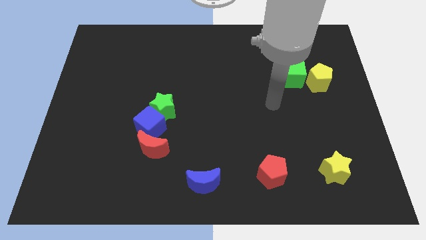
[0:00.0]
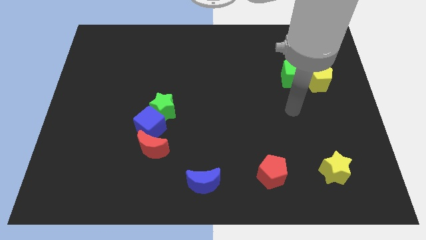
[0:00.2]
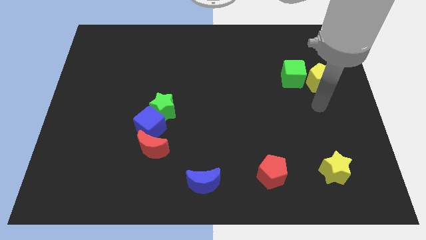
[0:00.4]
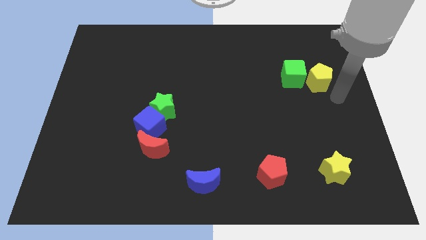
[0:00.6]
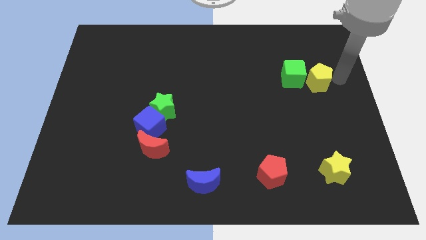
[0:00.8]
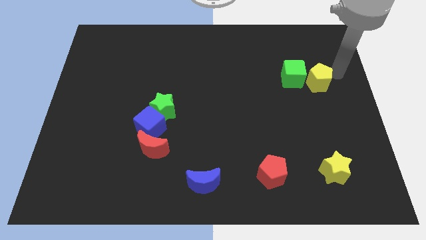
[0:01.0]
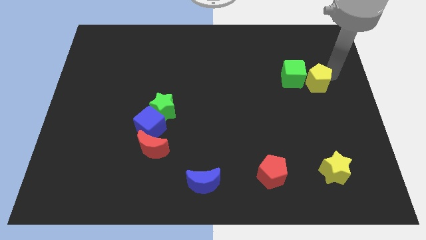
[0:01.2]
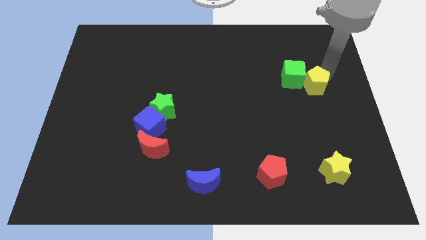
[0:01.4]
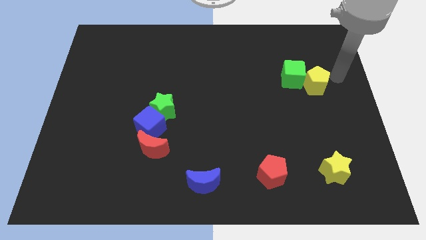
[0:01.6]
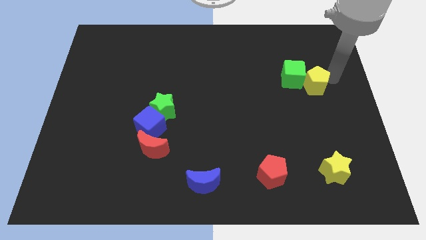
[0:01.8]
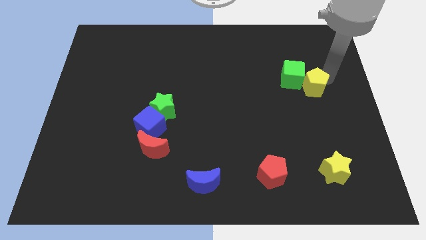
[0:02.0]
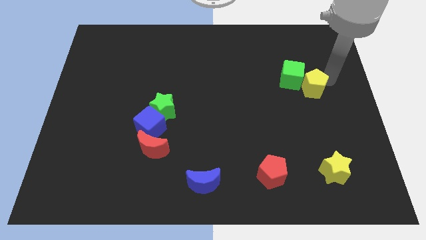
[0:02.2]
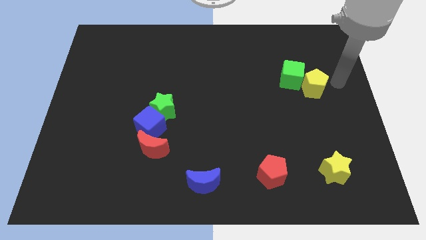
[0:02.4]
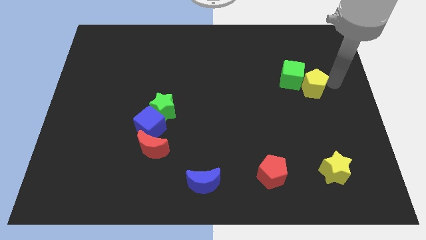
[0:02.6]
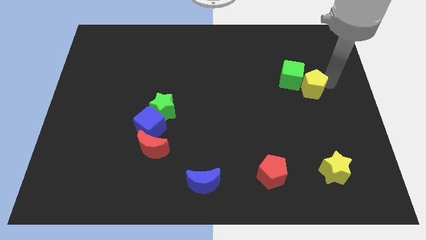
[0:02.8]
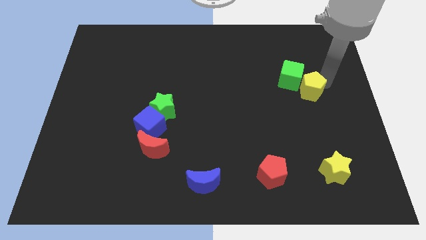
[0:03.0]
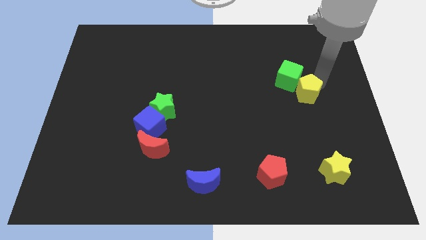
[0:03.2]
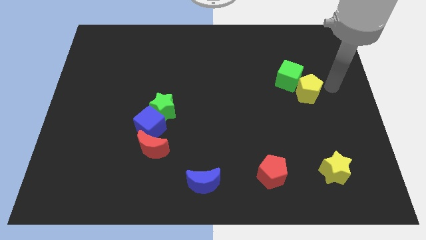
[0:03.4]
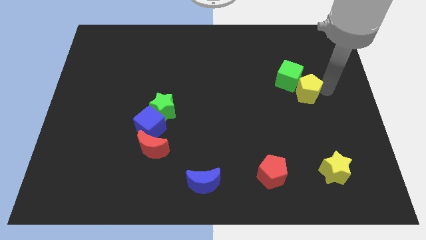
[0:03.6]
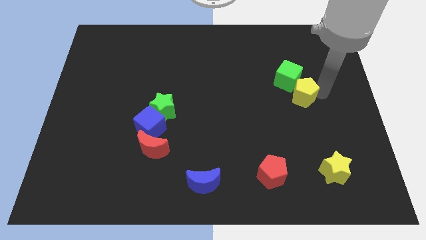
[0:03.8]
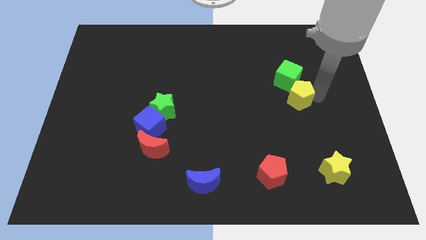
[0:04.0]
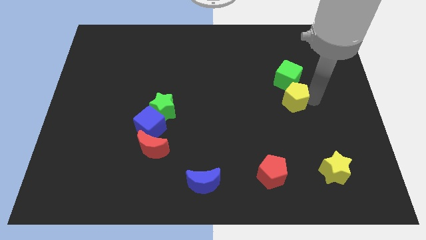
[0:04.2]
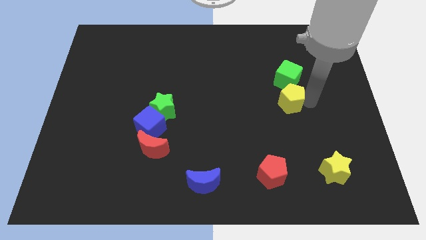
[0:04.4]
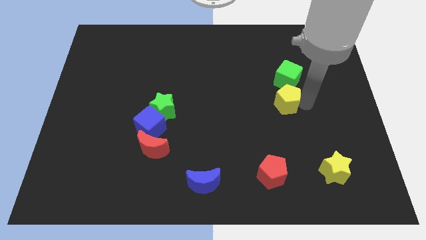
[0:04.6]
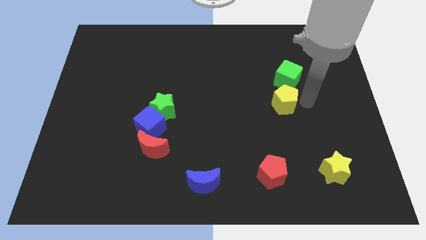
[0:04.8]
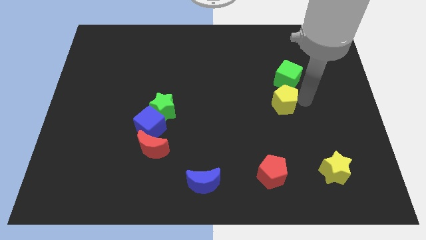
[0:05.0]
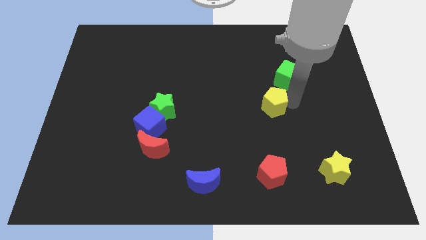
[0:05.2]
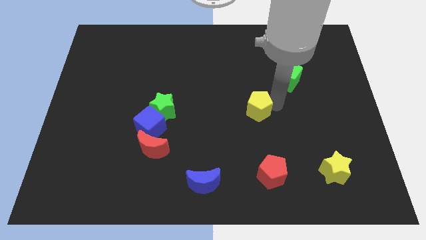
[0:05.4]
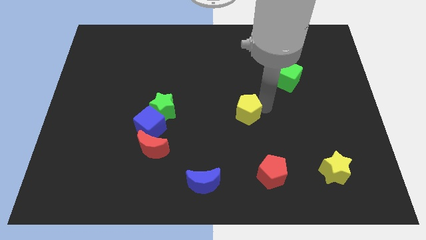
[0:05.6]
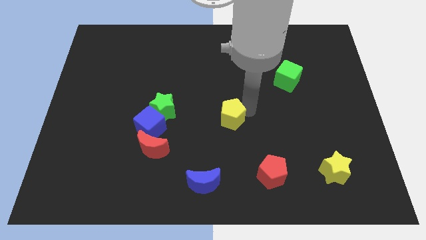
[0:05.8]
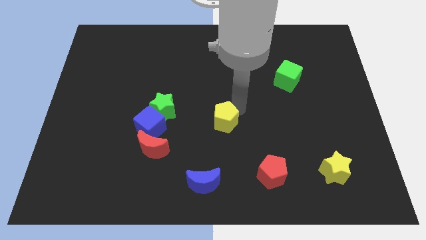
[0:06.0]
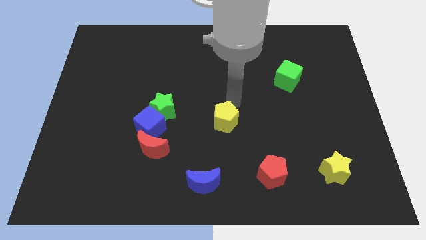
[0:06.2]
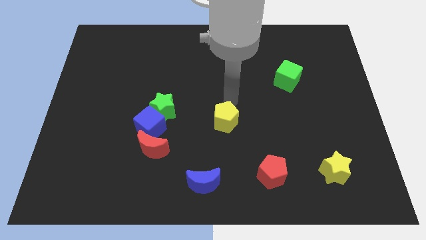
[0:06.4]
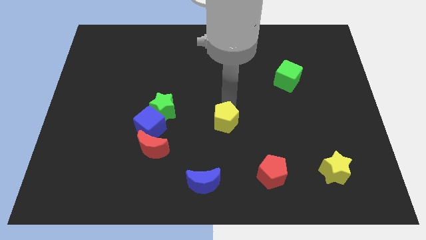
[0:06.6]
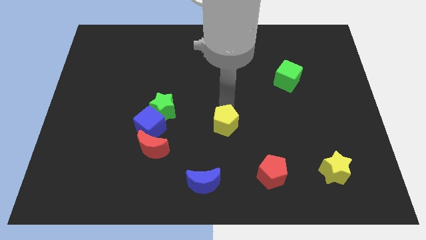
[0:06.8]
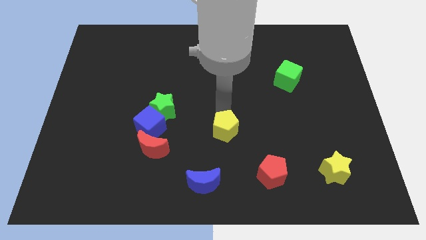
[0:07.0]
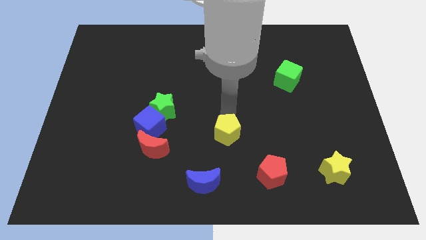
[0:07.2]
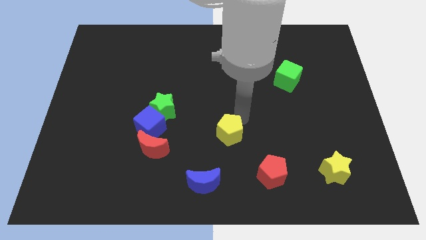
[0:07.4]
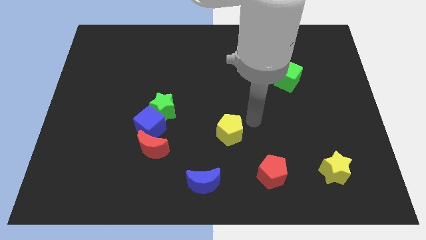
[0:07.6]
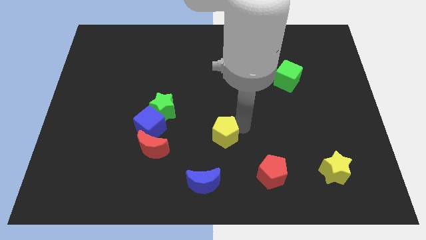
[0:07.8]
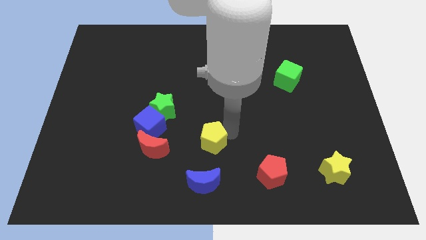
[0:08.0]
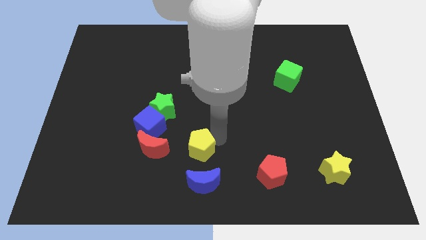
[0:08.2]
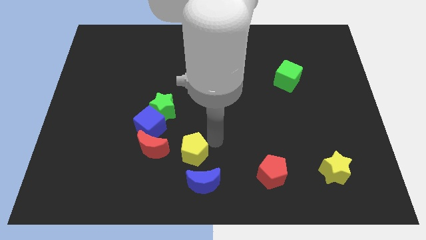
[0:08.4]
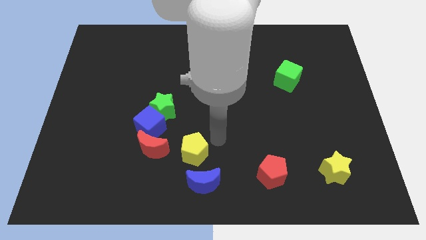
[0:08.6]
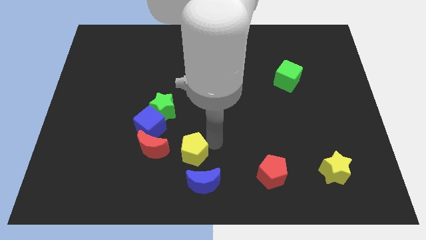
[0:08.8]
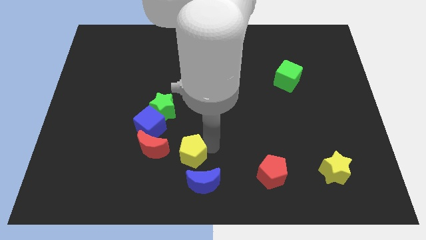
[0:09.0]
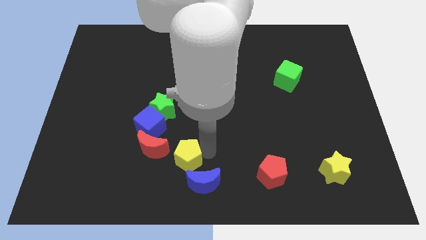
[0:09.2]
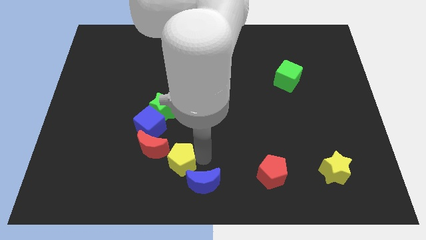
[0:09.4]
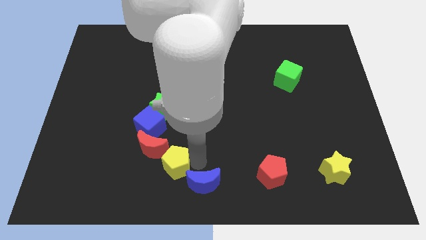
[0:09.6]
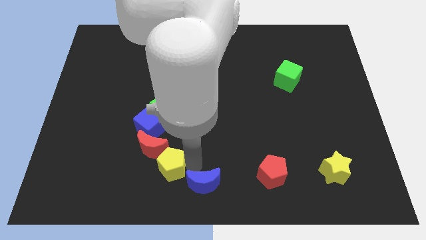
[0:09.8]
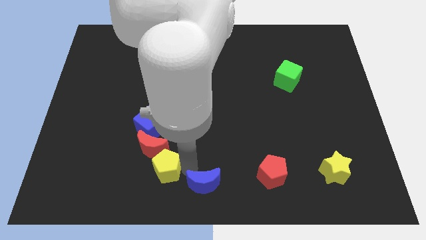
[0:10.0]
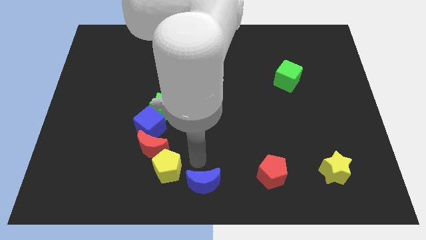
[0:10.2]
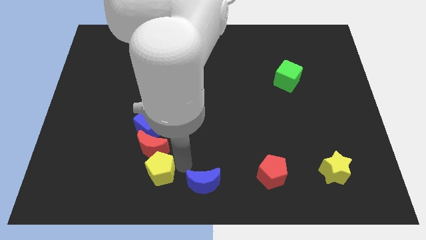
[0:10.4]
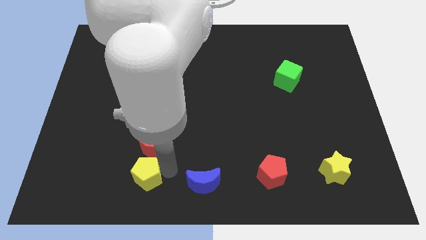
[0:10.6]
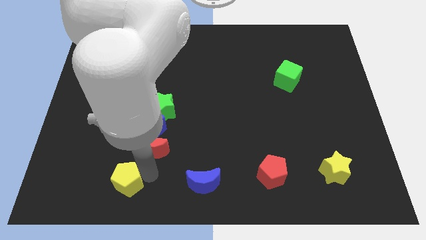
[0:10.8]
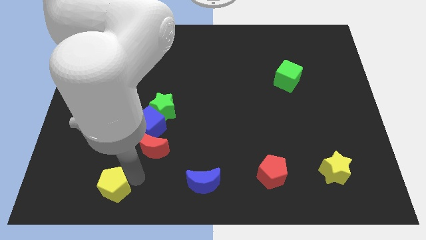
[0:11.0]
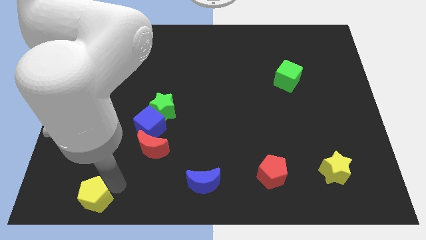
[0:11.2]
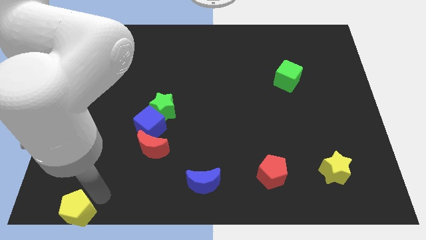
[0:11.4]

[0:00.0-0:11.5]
push the yellow pentagon to the bottom left of the board
